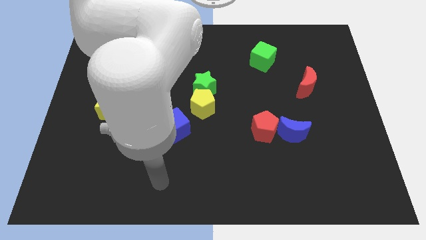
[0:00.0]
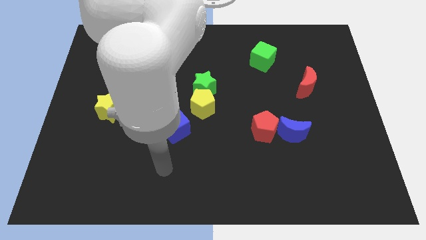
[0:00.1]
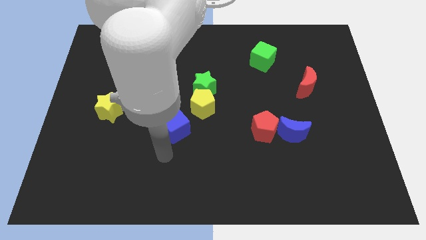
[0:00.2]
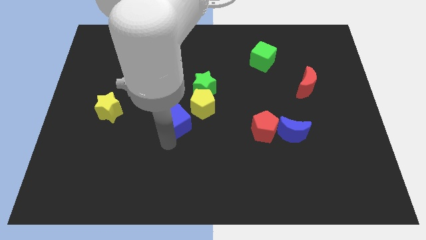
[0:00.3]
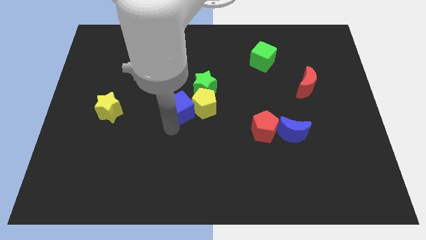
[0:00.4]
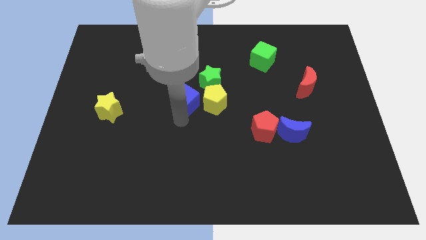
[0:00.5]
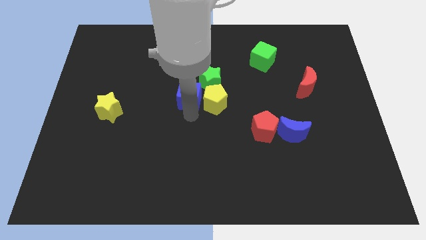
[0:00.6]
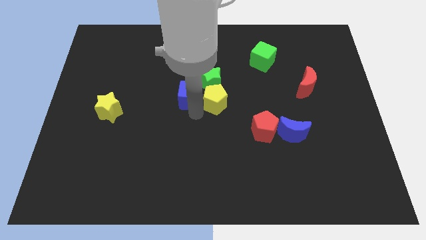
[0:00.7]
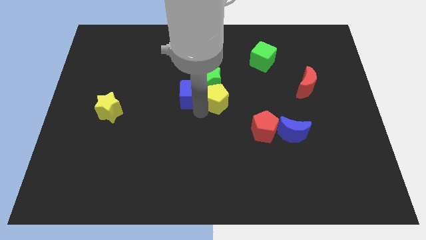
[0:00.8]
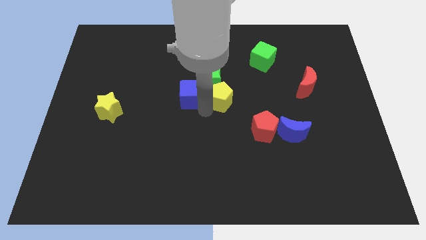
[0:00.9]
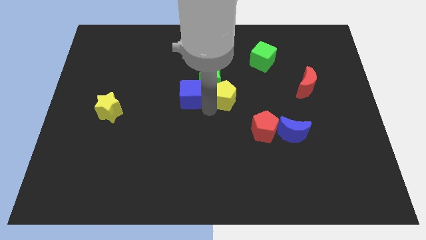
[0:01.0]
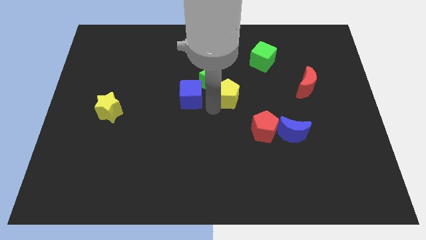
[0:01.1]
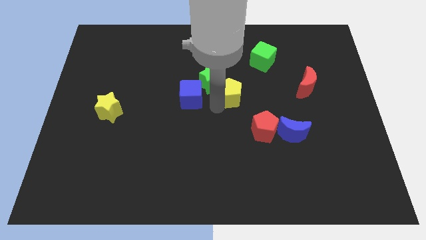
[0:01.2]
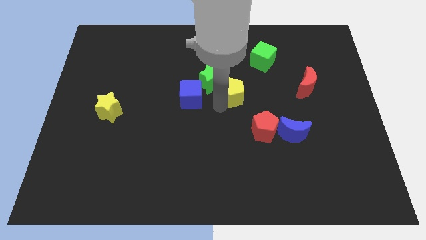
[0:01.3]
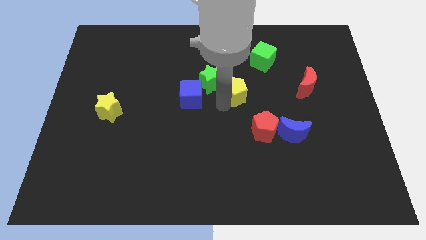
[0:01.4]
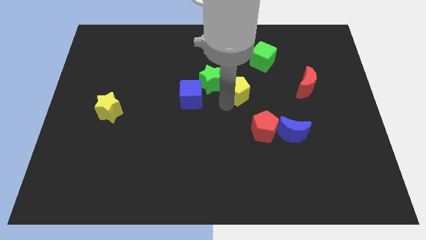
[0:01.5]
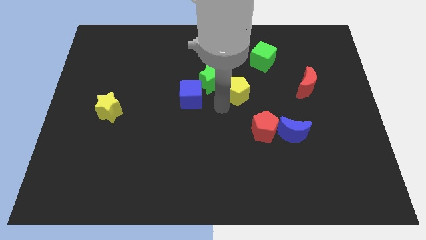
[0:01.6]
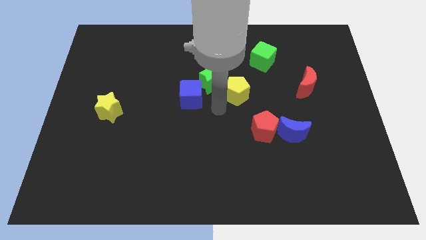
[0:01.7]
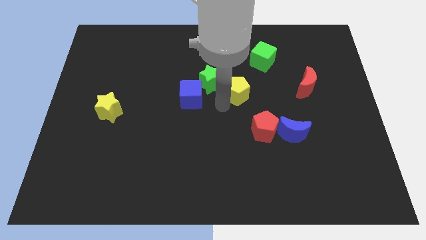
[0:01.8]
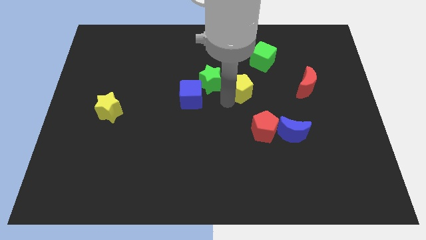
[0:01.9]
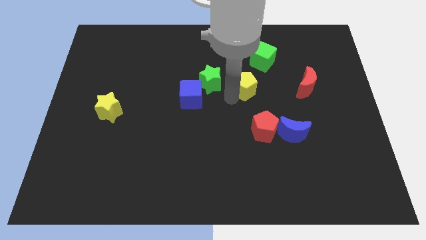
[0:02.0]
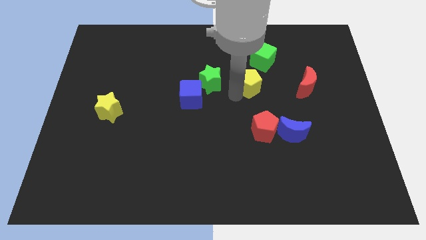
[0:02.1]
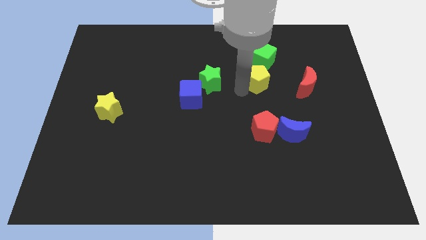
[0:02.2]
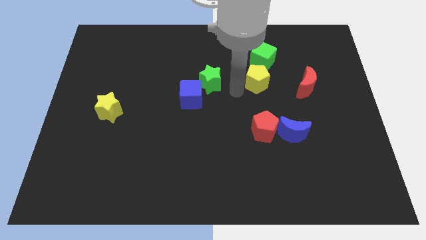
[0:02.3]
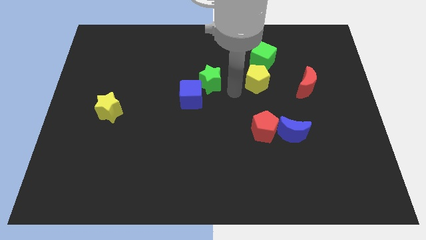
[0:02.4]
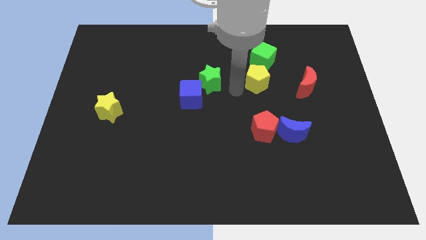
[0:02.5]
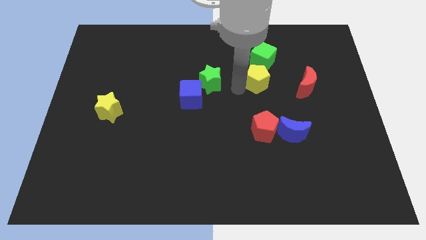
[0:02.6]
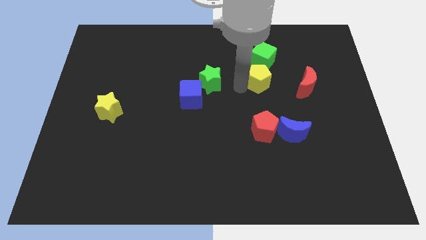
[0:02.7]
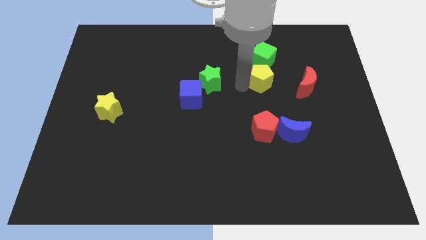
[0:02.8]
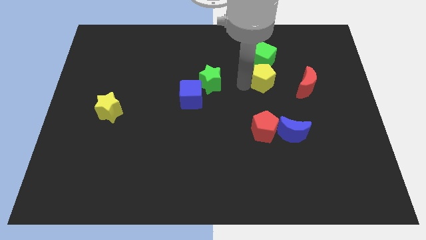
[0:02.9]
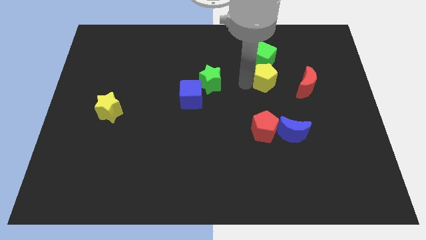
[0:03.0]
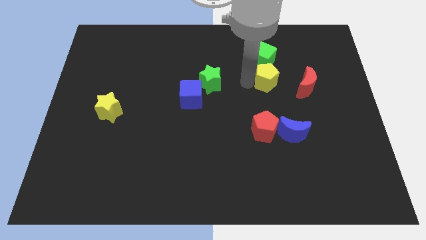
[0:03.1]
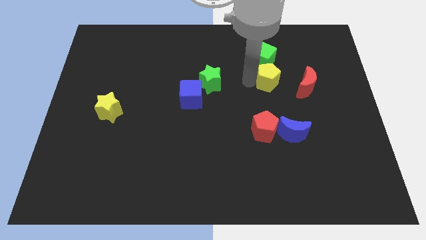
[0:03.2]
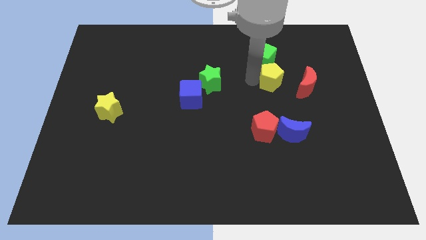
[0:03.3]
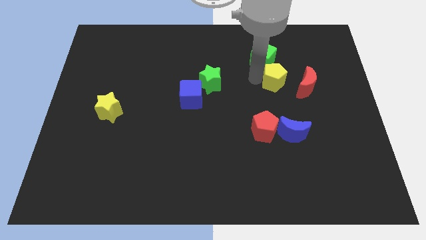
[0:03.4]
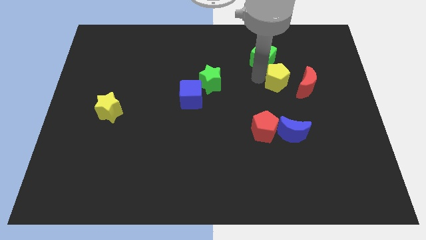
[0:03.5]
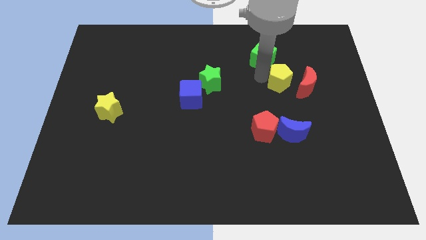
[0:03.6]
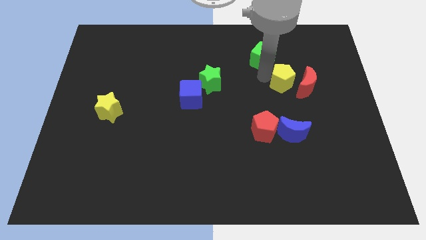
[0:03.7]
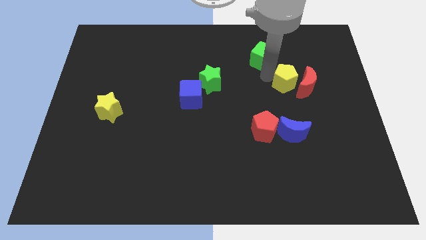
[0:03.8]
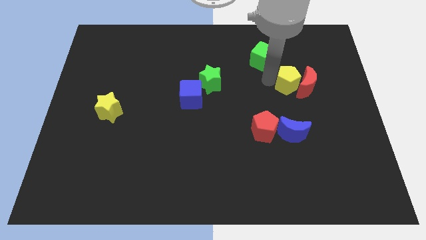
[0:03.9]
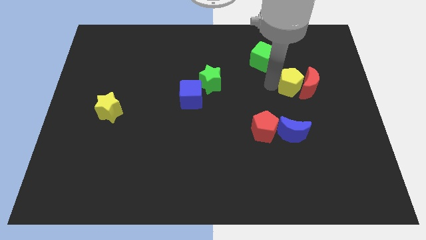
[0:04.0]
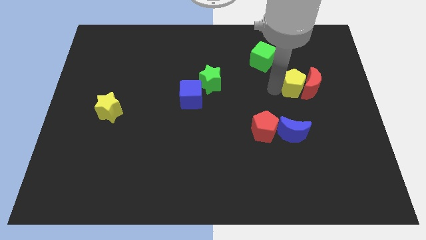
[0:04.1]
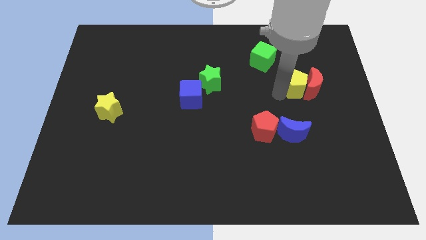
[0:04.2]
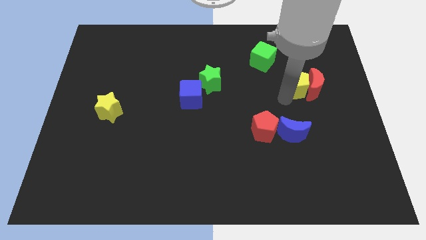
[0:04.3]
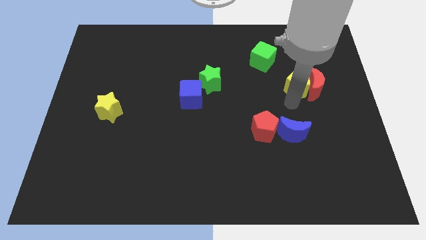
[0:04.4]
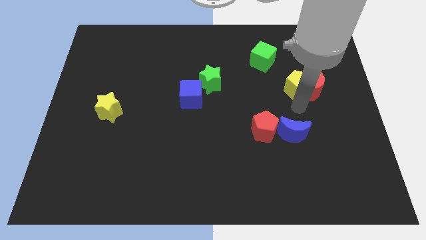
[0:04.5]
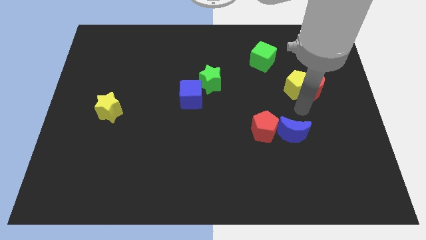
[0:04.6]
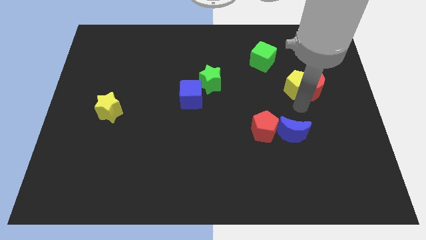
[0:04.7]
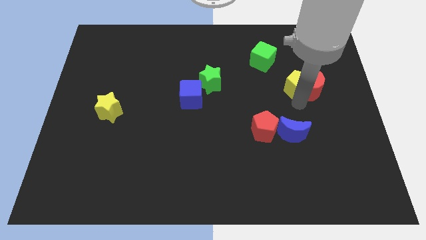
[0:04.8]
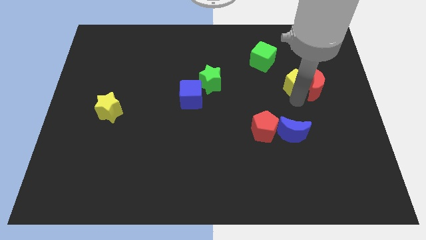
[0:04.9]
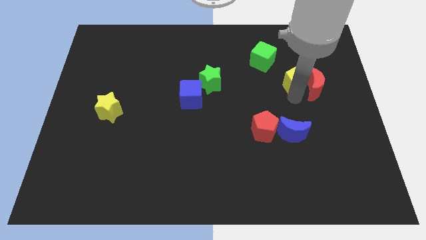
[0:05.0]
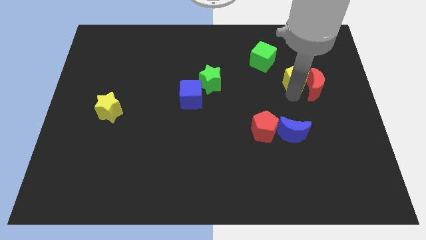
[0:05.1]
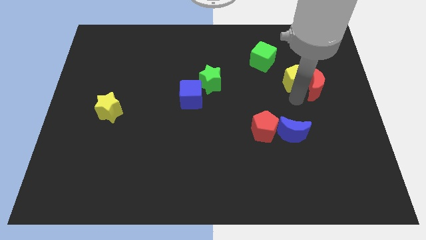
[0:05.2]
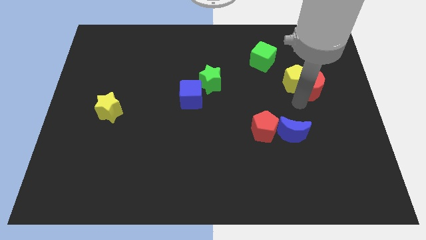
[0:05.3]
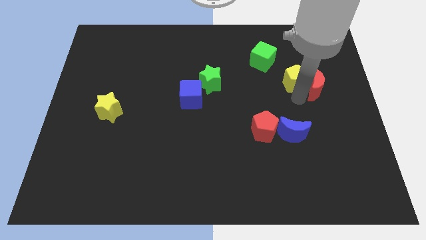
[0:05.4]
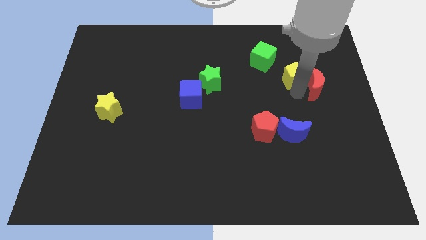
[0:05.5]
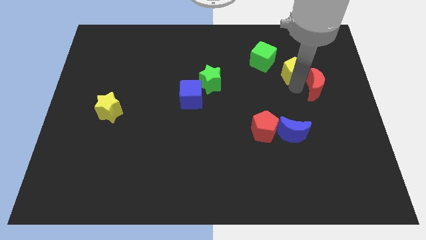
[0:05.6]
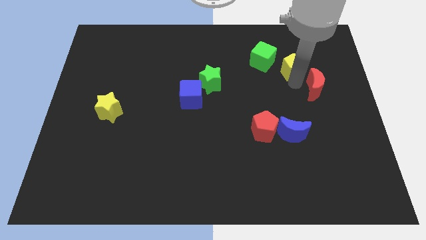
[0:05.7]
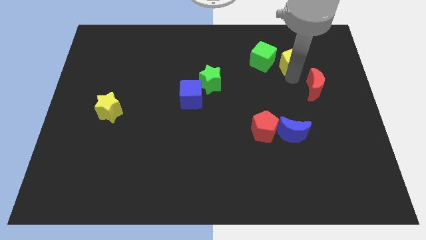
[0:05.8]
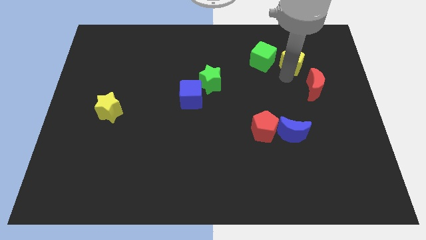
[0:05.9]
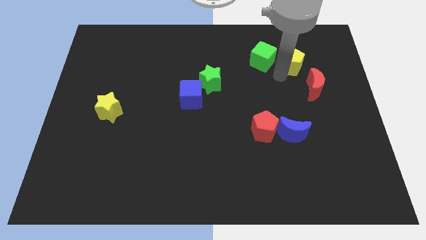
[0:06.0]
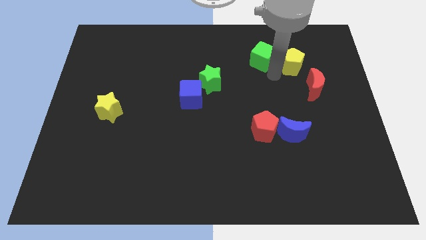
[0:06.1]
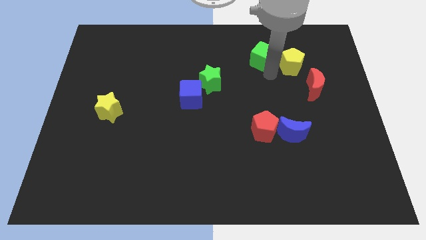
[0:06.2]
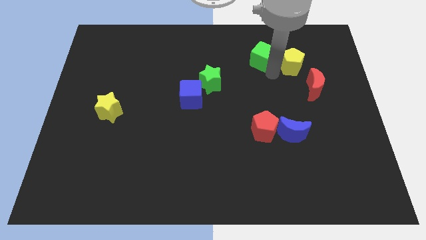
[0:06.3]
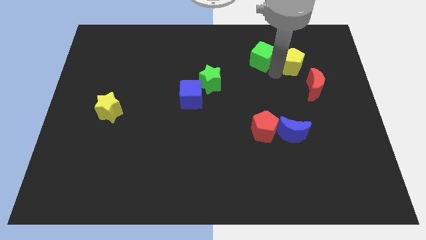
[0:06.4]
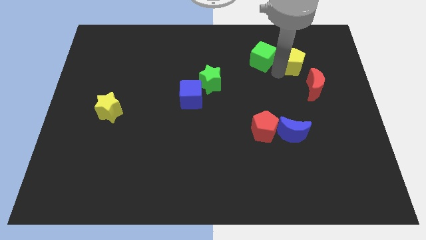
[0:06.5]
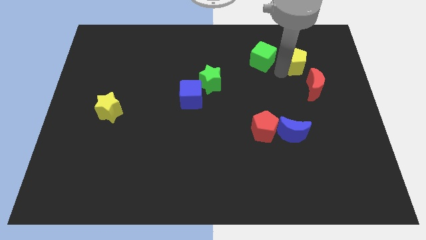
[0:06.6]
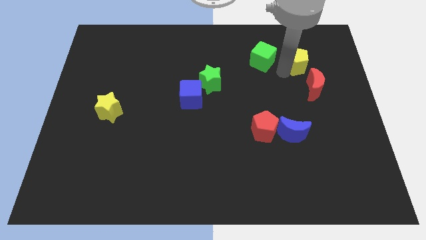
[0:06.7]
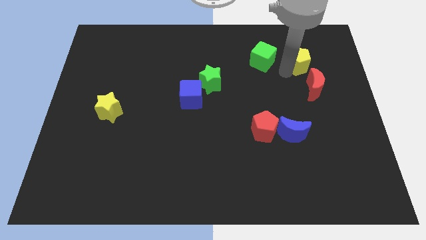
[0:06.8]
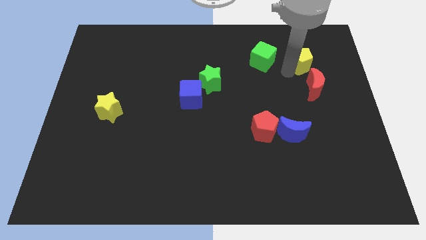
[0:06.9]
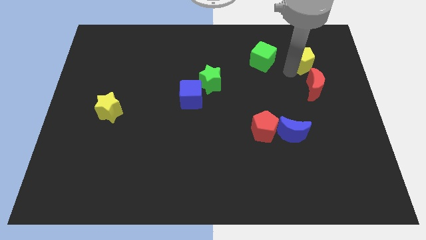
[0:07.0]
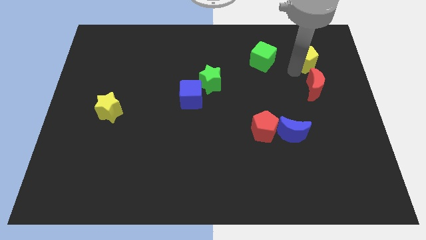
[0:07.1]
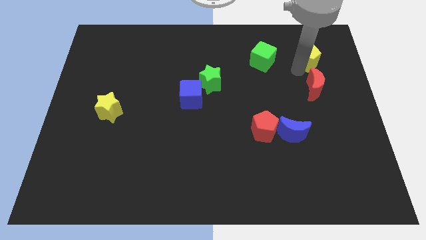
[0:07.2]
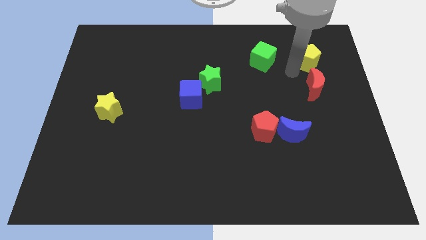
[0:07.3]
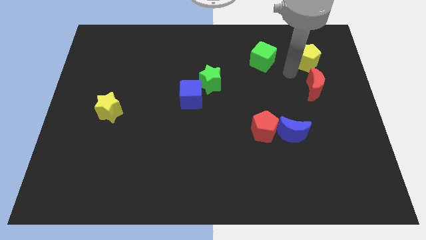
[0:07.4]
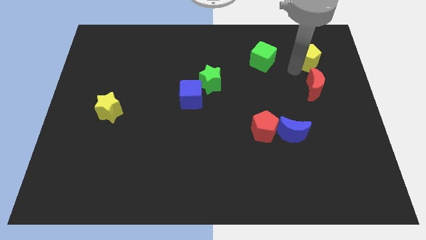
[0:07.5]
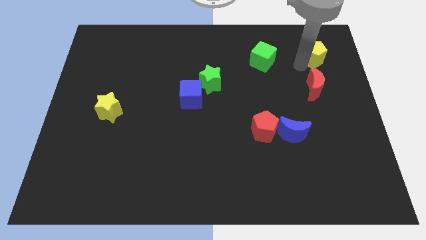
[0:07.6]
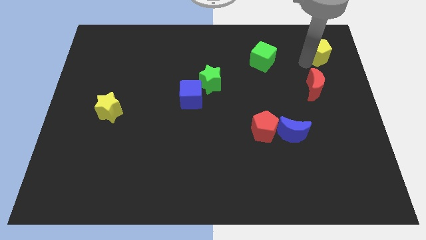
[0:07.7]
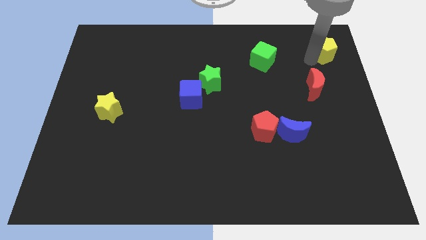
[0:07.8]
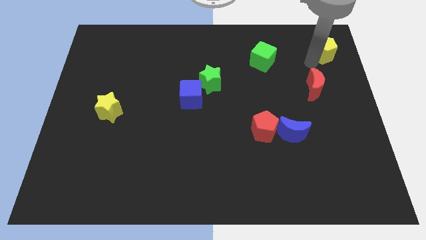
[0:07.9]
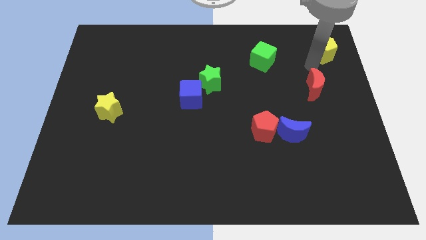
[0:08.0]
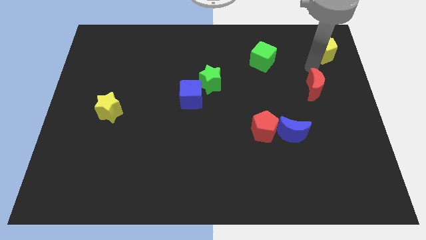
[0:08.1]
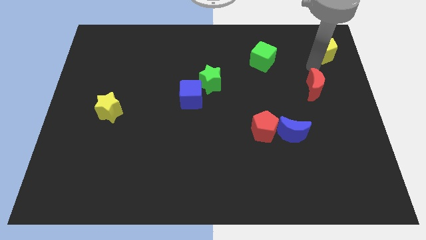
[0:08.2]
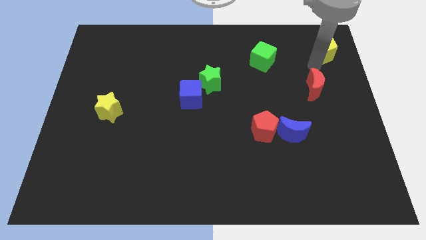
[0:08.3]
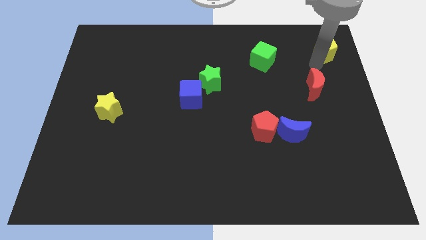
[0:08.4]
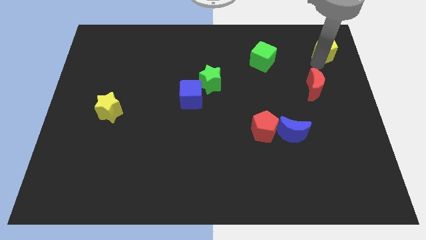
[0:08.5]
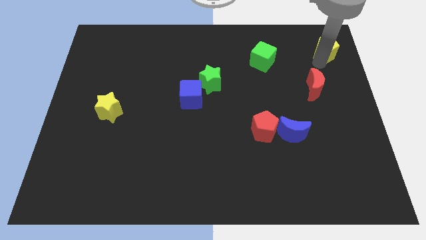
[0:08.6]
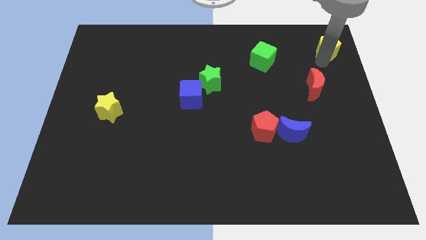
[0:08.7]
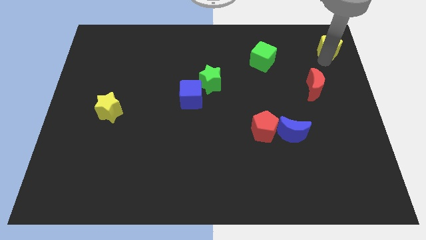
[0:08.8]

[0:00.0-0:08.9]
slide the yellow pentagon to the top right of the board
